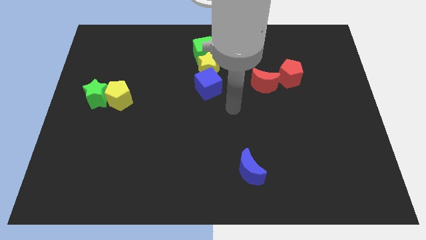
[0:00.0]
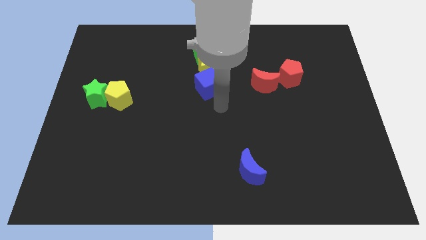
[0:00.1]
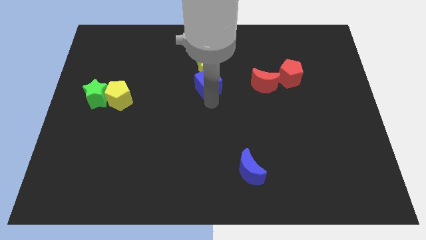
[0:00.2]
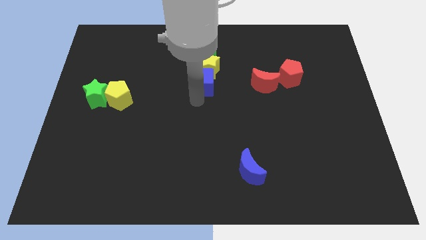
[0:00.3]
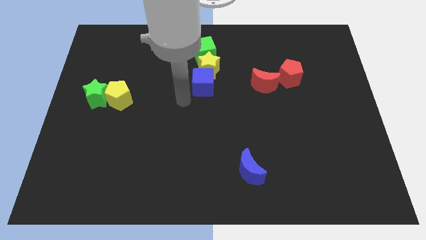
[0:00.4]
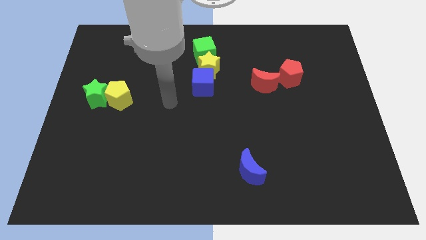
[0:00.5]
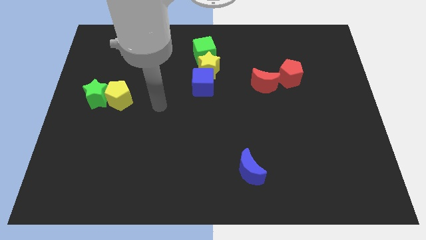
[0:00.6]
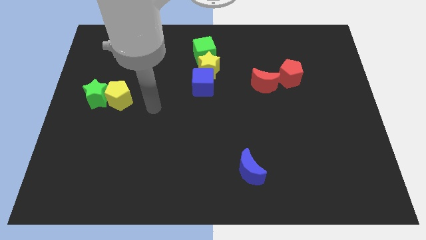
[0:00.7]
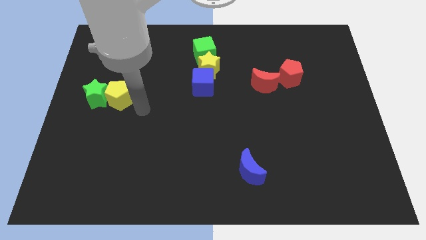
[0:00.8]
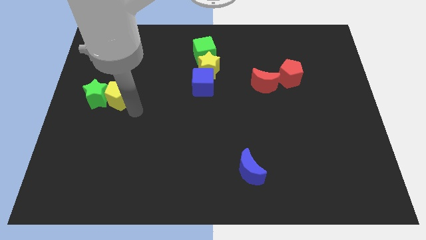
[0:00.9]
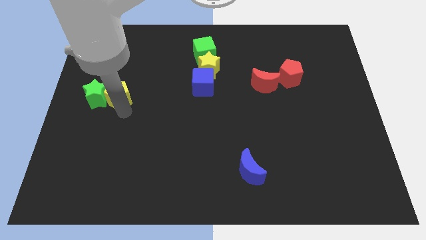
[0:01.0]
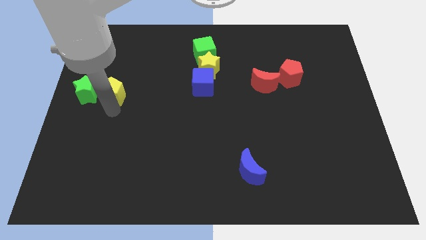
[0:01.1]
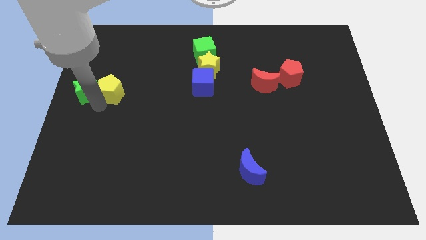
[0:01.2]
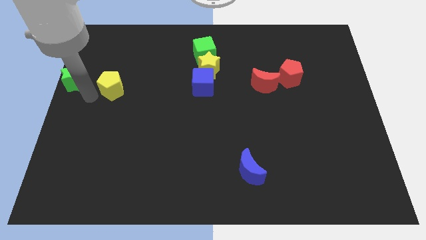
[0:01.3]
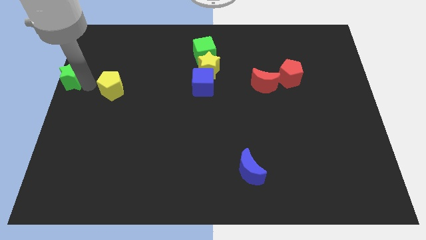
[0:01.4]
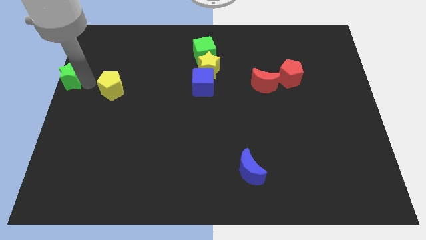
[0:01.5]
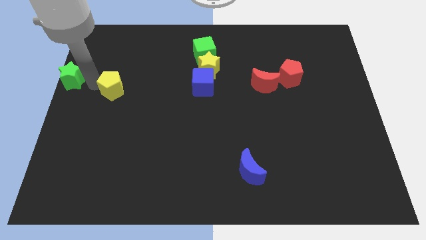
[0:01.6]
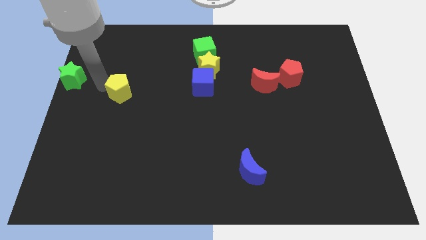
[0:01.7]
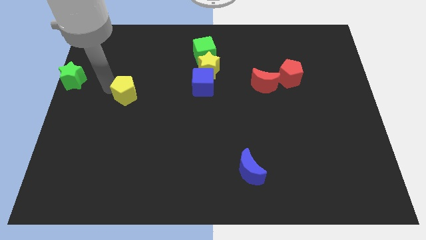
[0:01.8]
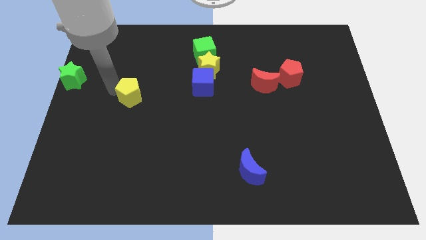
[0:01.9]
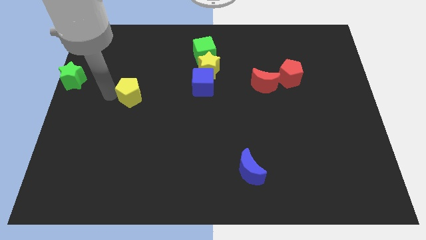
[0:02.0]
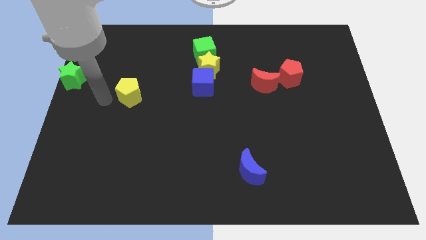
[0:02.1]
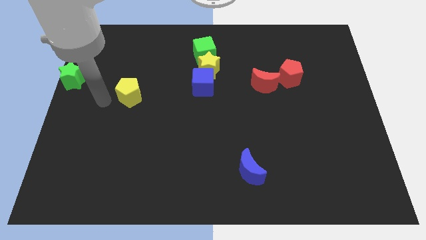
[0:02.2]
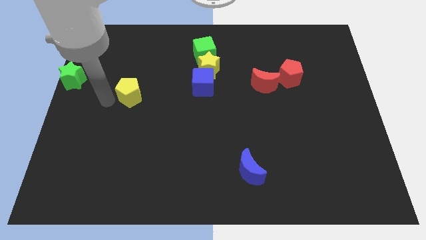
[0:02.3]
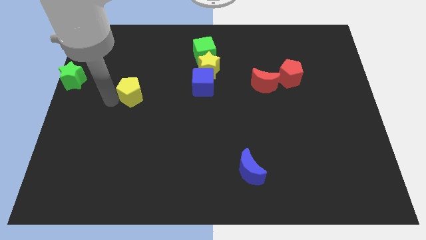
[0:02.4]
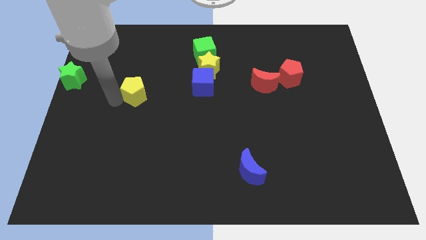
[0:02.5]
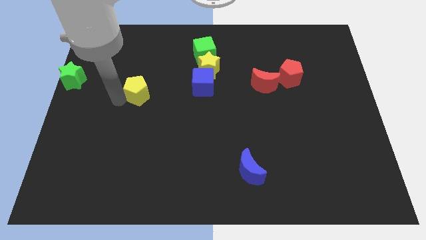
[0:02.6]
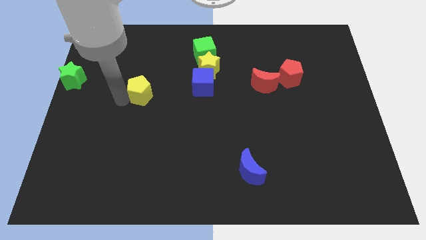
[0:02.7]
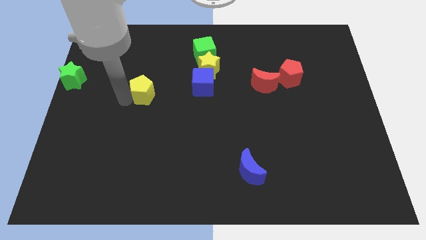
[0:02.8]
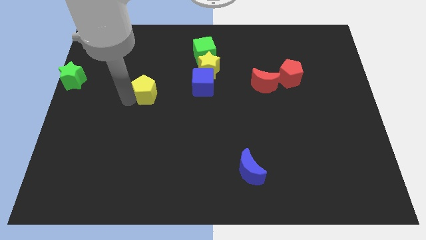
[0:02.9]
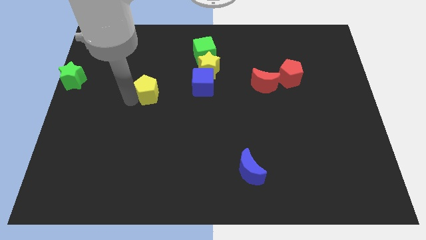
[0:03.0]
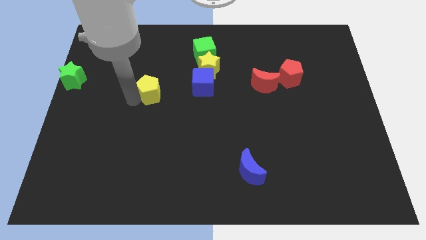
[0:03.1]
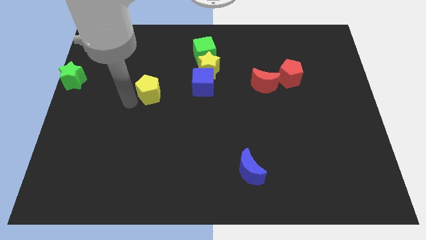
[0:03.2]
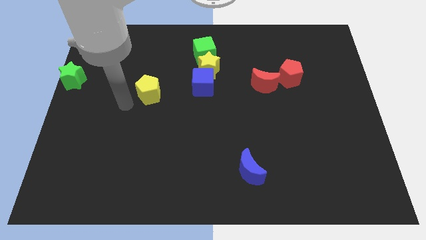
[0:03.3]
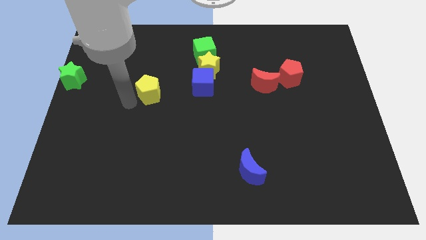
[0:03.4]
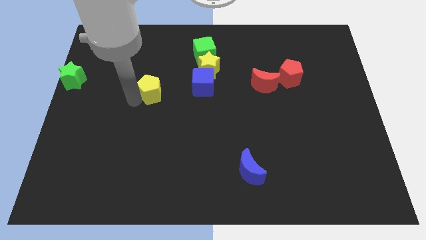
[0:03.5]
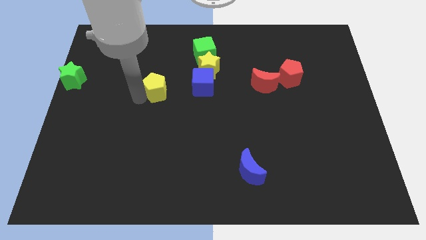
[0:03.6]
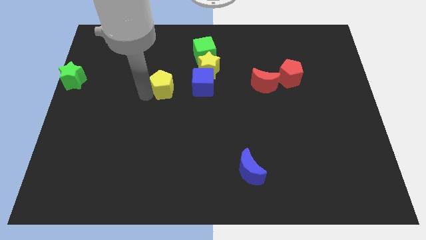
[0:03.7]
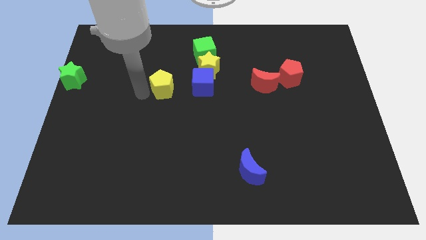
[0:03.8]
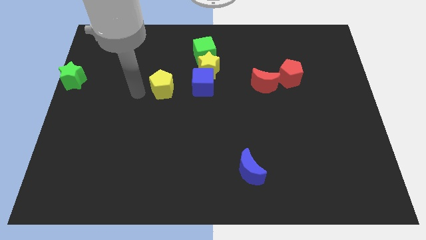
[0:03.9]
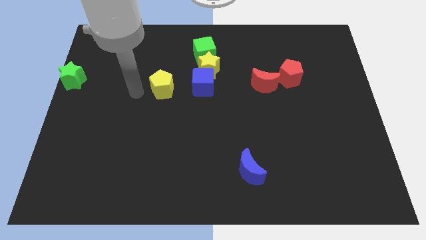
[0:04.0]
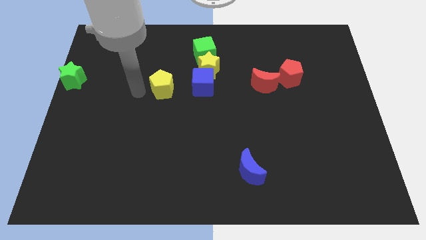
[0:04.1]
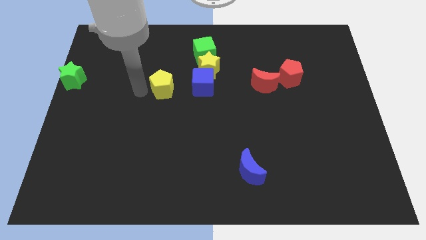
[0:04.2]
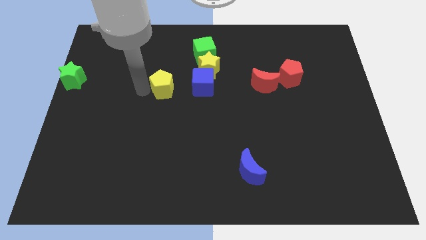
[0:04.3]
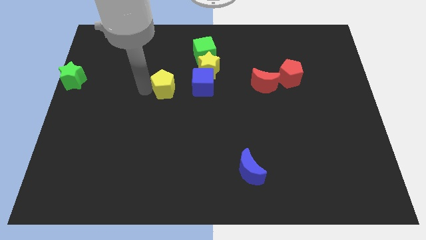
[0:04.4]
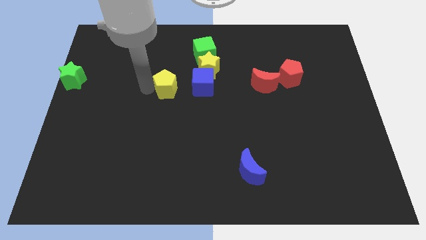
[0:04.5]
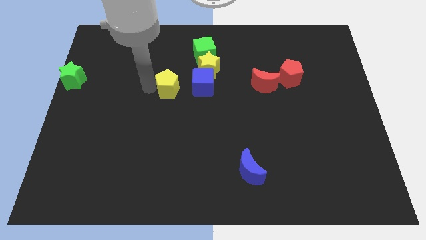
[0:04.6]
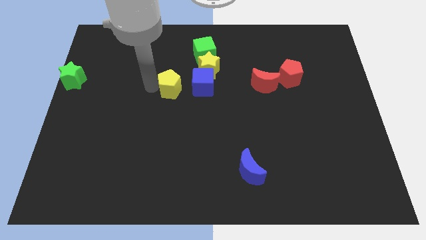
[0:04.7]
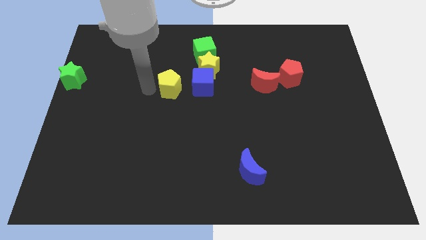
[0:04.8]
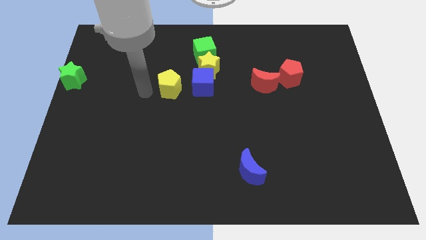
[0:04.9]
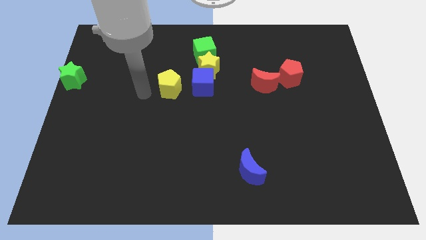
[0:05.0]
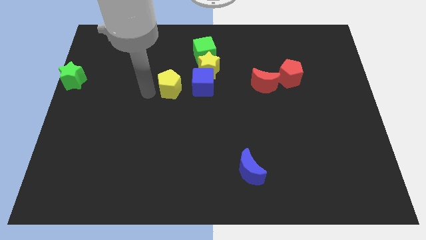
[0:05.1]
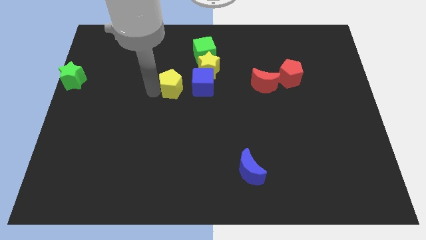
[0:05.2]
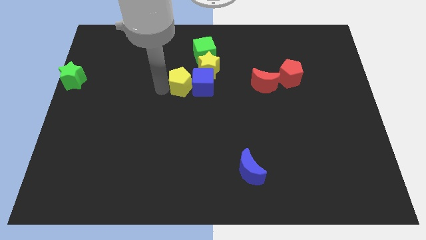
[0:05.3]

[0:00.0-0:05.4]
put the yellow pentagon close to the blue cube

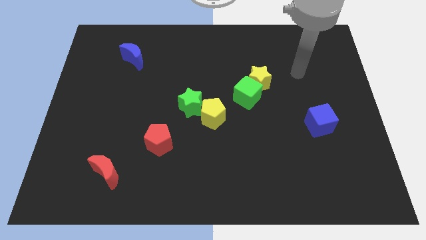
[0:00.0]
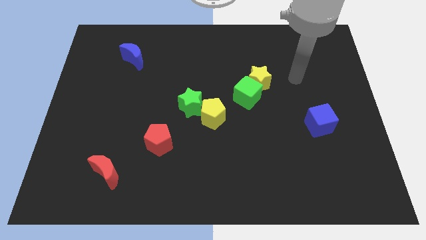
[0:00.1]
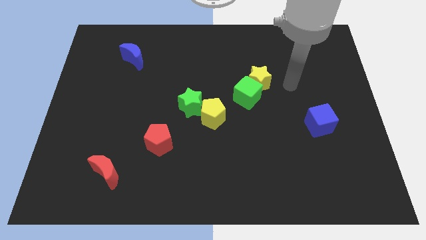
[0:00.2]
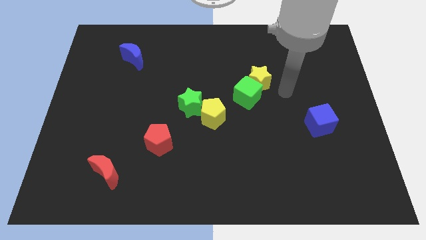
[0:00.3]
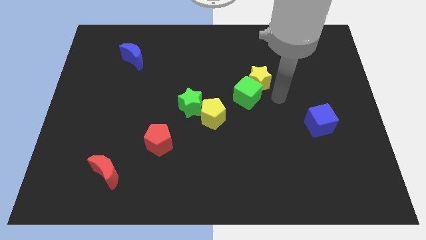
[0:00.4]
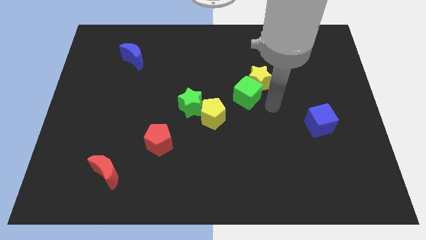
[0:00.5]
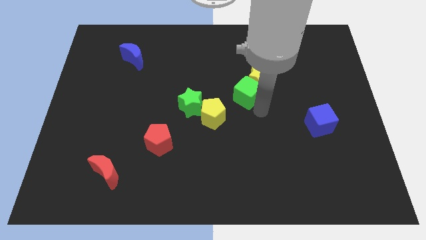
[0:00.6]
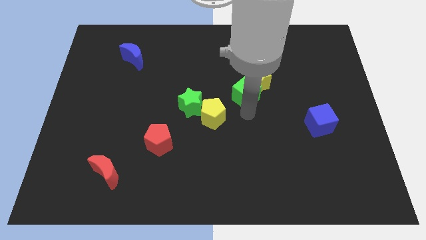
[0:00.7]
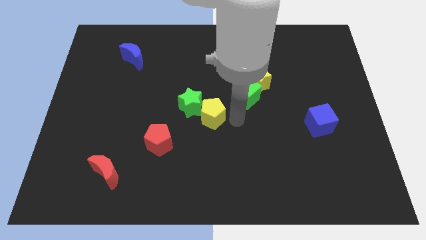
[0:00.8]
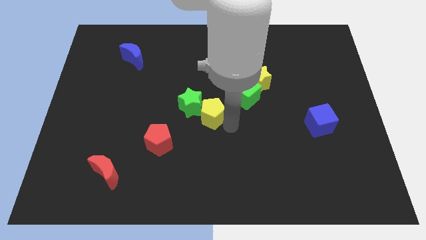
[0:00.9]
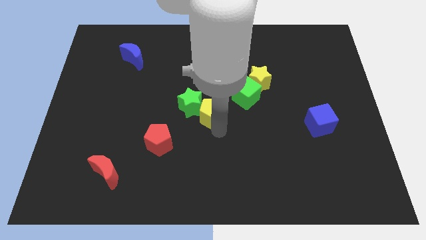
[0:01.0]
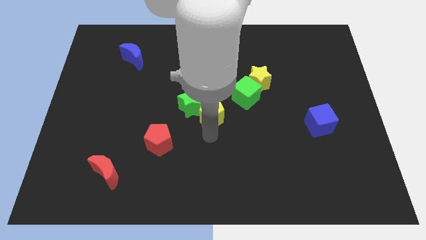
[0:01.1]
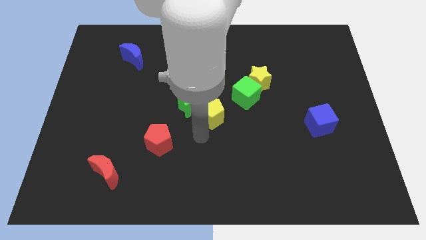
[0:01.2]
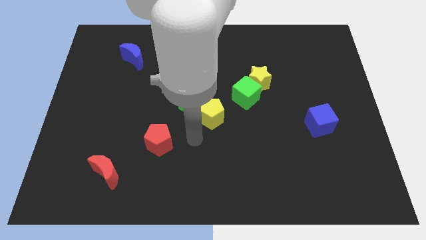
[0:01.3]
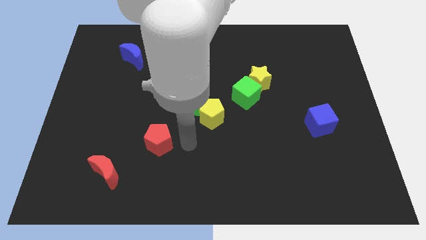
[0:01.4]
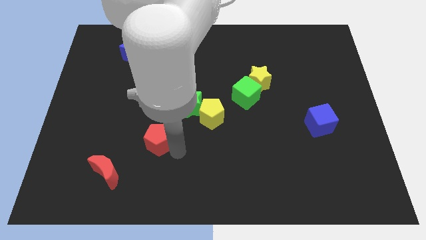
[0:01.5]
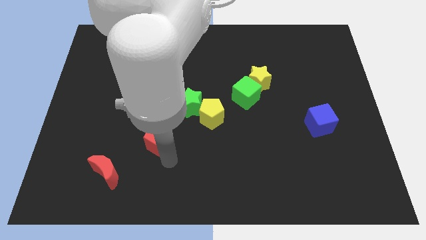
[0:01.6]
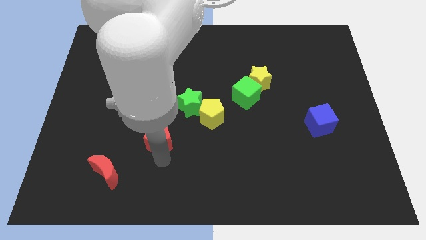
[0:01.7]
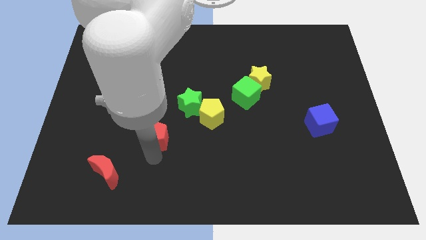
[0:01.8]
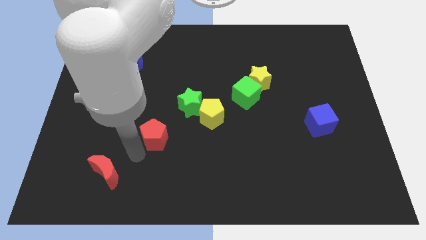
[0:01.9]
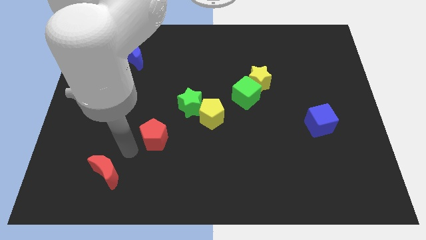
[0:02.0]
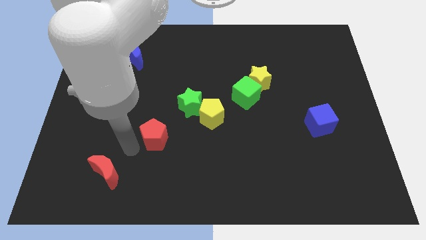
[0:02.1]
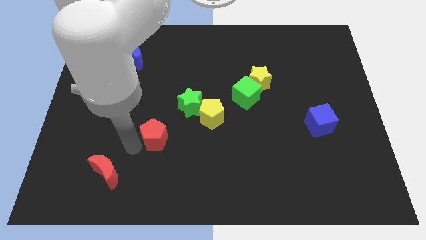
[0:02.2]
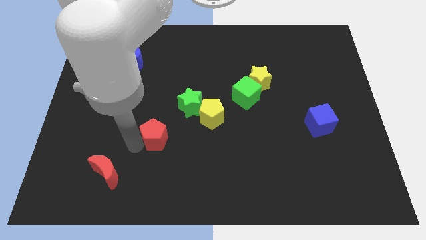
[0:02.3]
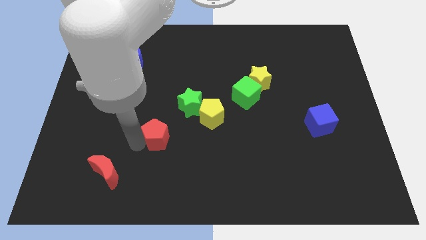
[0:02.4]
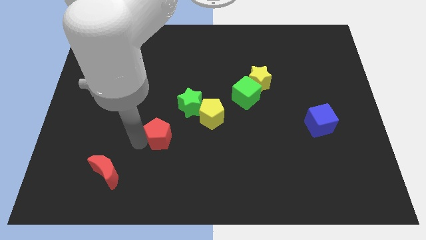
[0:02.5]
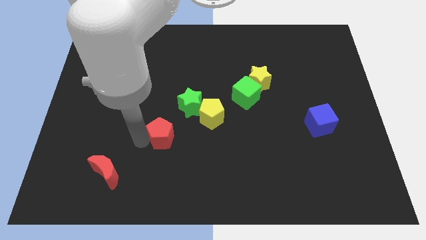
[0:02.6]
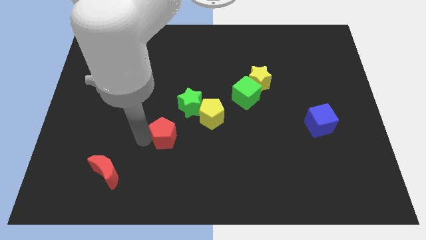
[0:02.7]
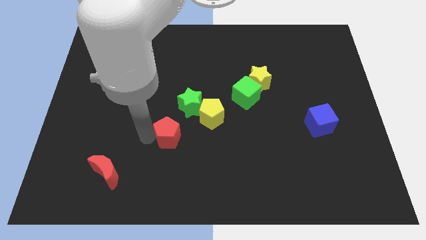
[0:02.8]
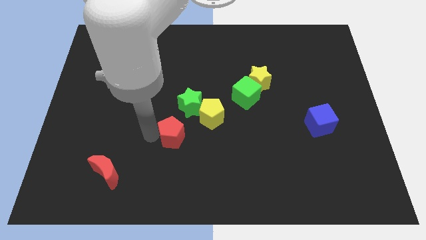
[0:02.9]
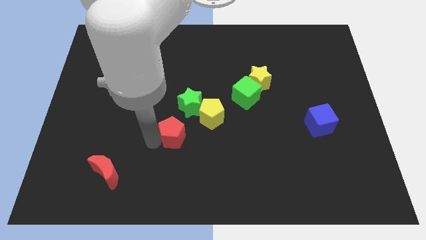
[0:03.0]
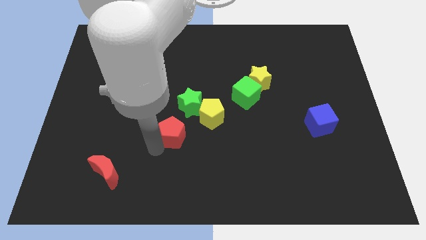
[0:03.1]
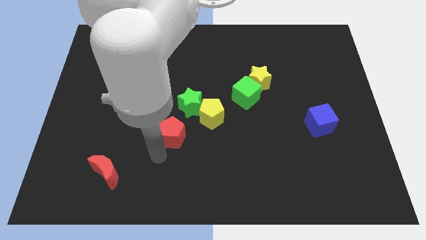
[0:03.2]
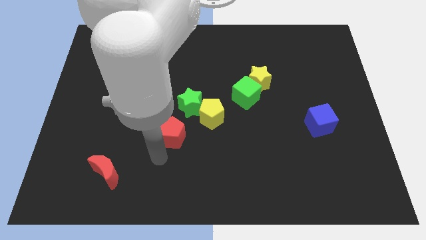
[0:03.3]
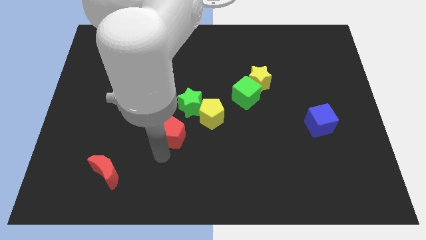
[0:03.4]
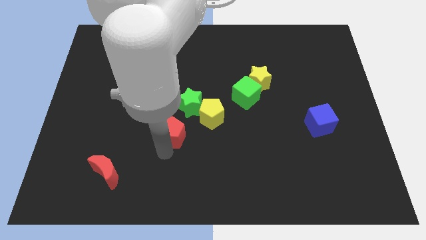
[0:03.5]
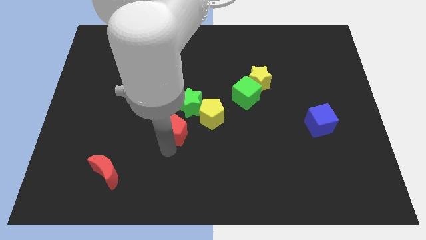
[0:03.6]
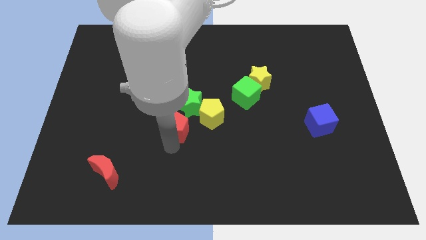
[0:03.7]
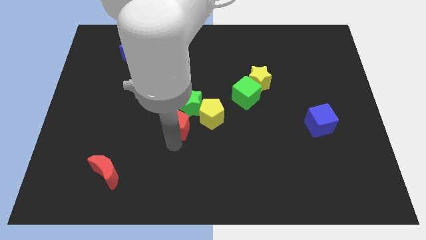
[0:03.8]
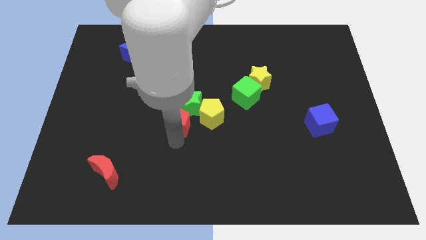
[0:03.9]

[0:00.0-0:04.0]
move the red pentagon next to the green star
